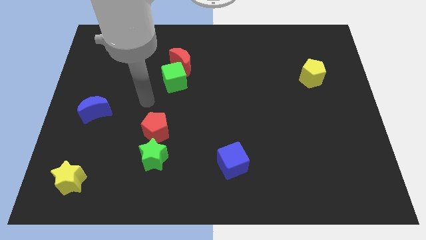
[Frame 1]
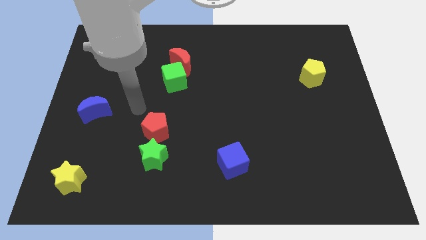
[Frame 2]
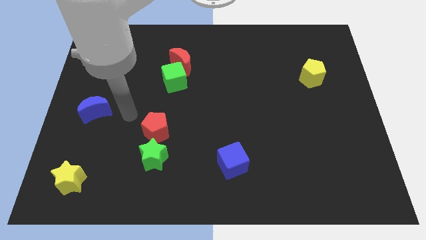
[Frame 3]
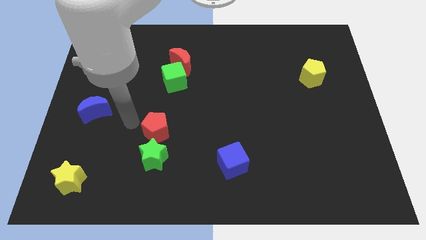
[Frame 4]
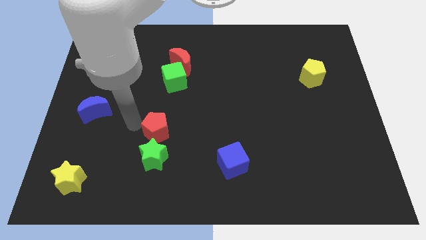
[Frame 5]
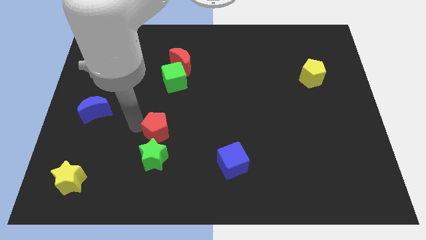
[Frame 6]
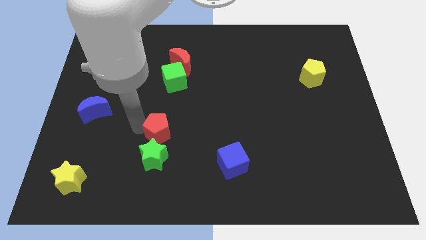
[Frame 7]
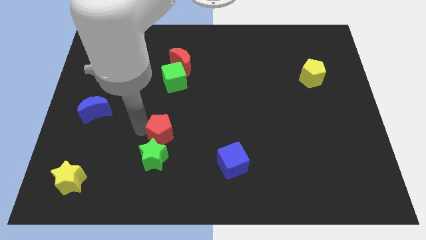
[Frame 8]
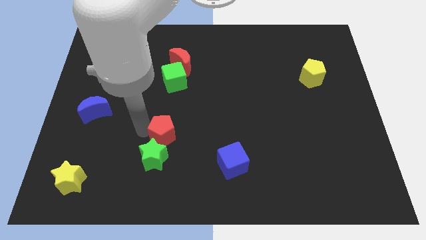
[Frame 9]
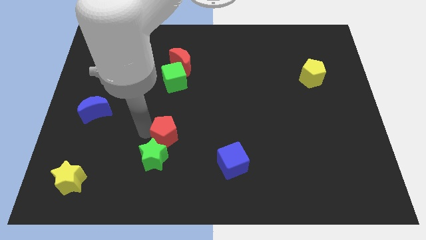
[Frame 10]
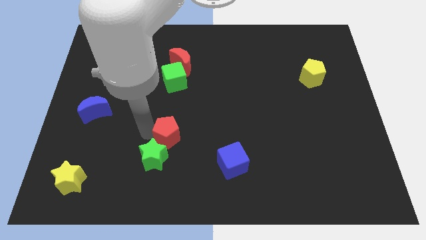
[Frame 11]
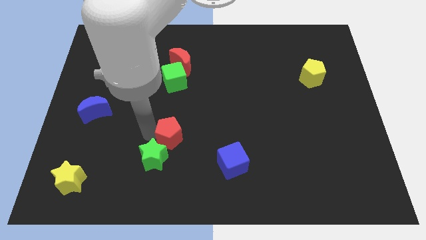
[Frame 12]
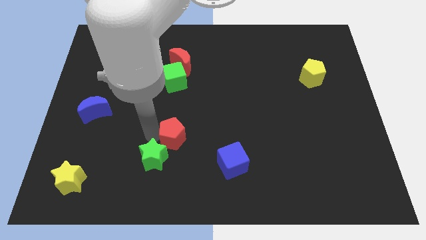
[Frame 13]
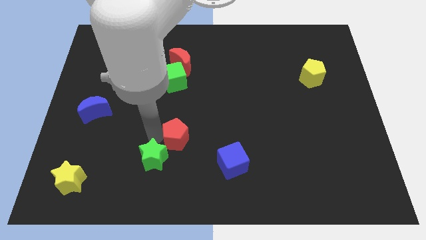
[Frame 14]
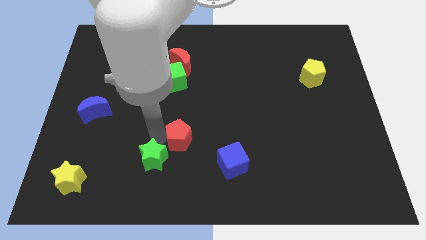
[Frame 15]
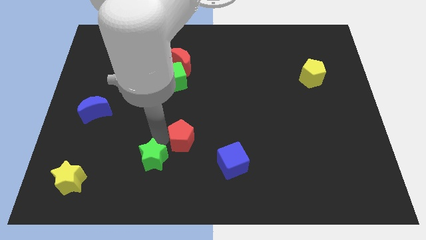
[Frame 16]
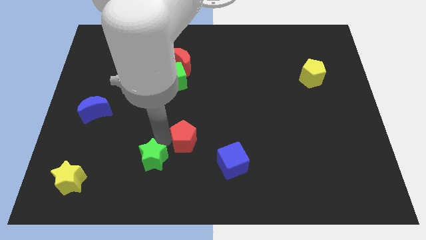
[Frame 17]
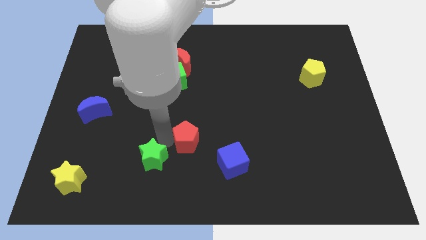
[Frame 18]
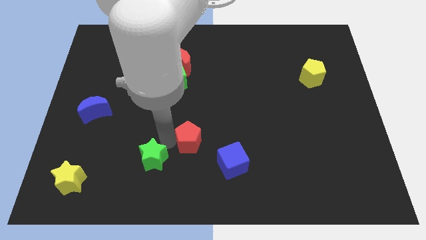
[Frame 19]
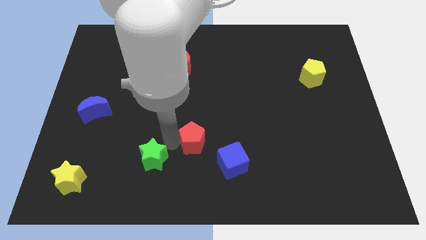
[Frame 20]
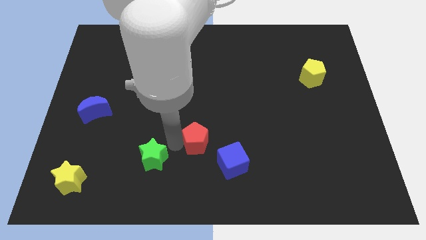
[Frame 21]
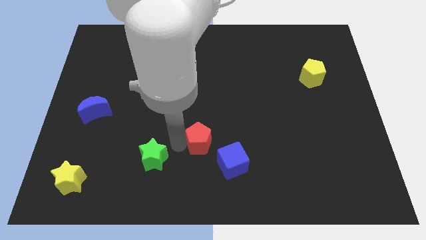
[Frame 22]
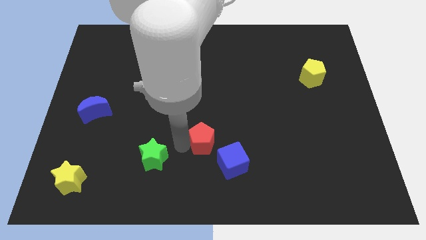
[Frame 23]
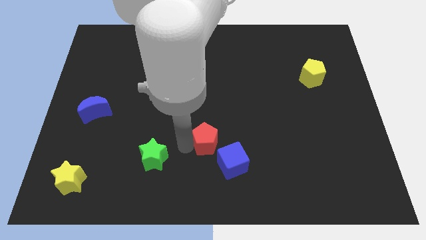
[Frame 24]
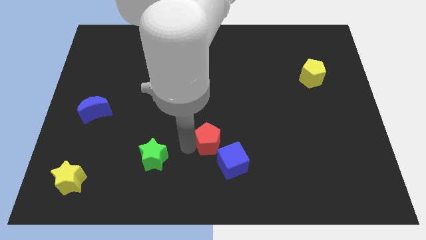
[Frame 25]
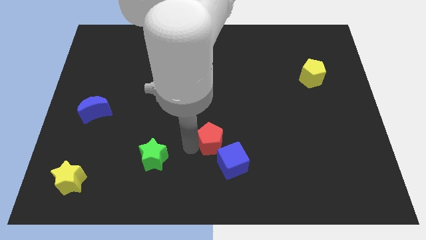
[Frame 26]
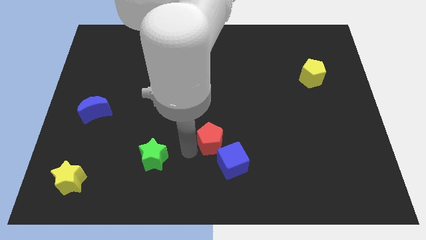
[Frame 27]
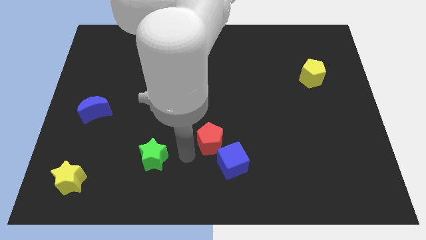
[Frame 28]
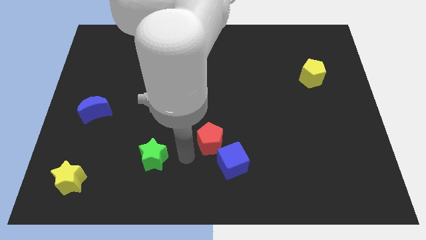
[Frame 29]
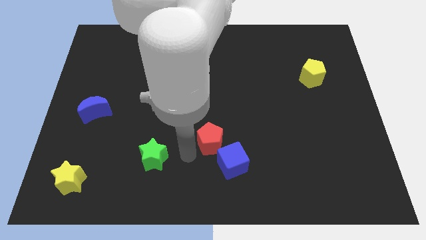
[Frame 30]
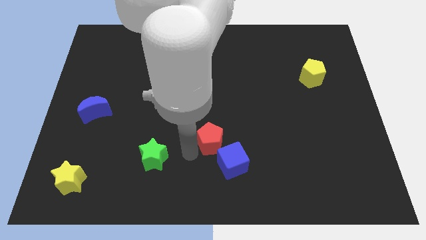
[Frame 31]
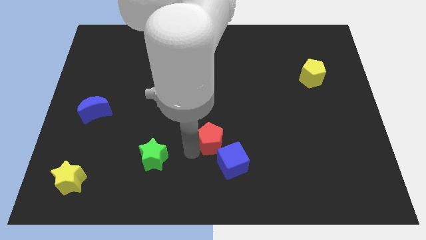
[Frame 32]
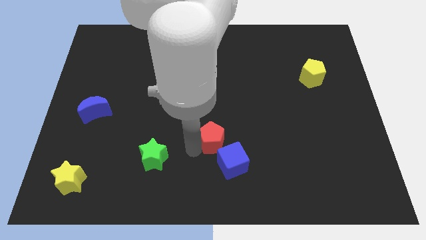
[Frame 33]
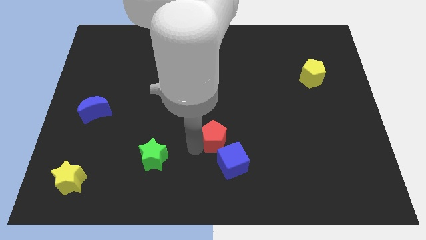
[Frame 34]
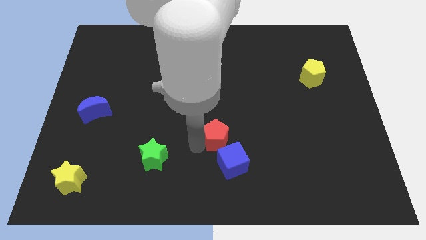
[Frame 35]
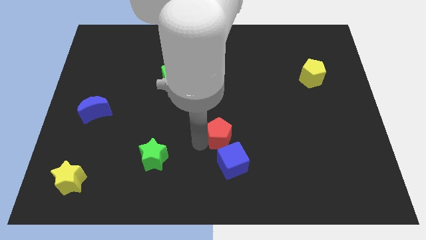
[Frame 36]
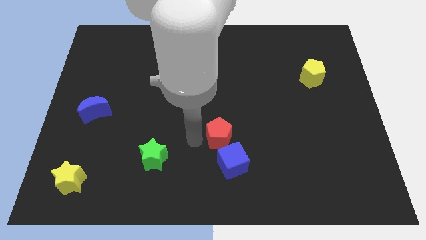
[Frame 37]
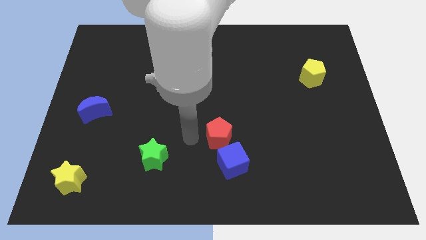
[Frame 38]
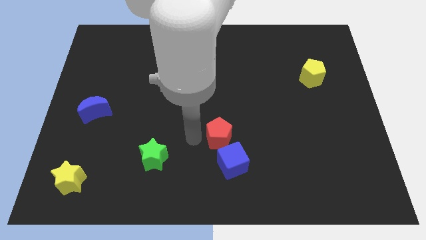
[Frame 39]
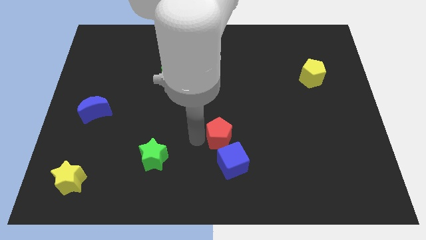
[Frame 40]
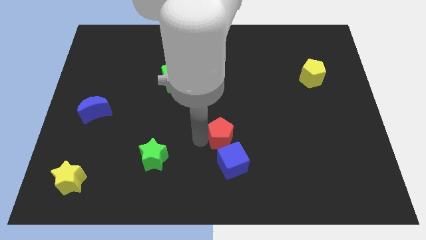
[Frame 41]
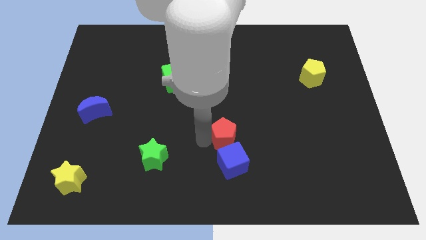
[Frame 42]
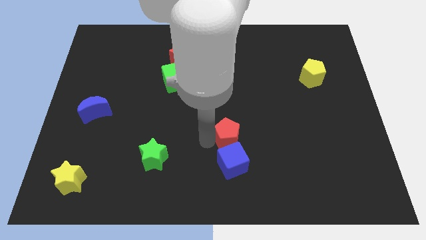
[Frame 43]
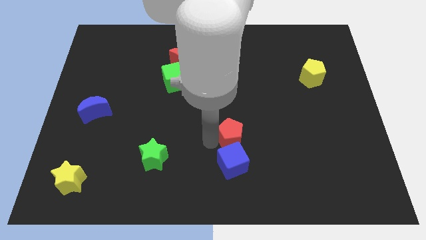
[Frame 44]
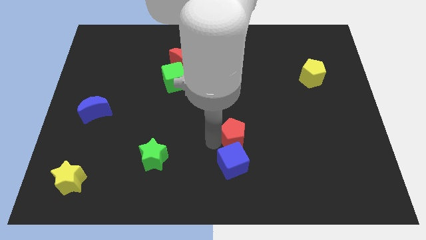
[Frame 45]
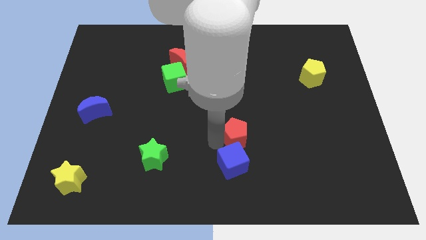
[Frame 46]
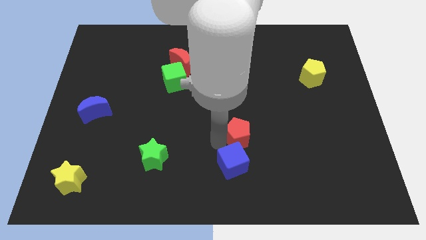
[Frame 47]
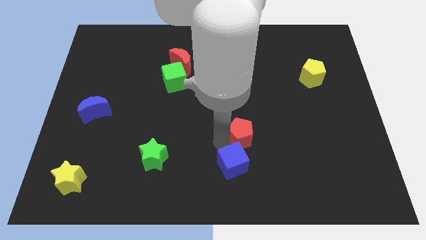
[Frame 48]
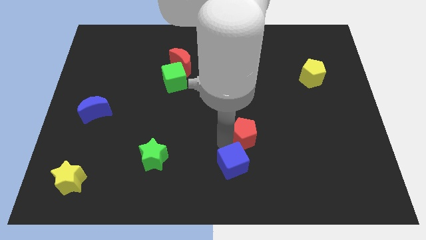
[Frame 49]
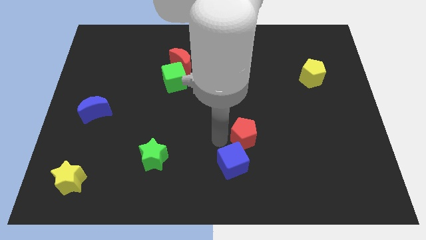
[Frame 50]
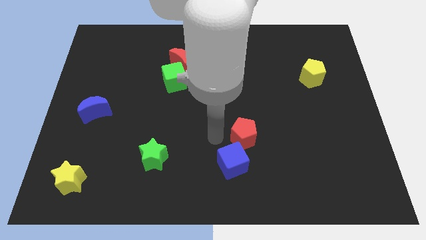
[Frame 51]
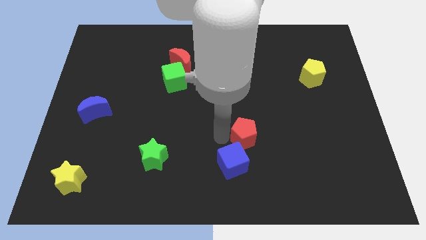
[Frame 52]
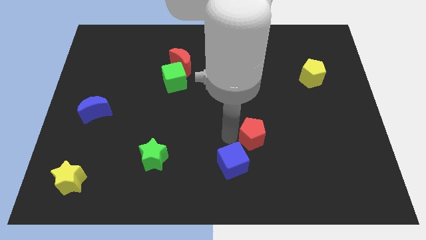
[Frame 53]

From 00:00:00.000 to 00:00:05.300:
move the red pentagon right

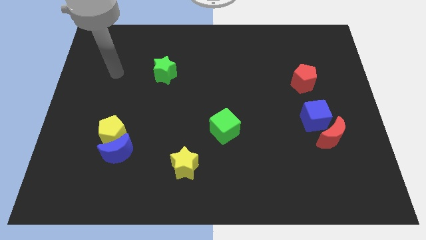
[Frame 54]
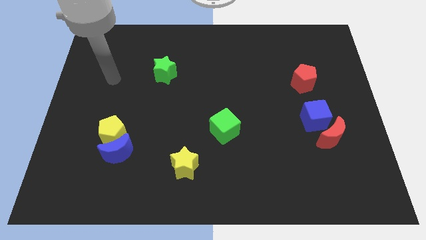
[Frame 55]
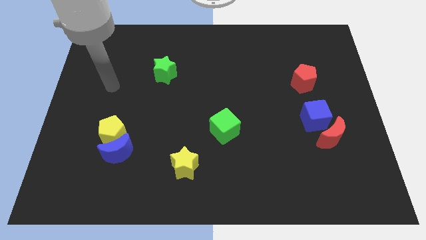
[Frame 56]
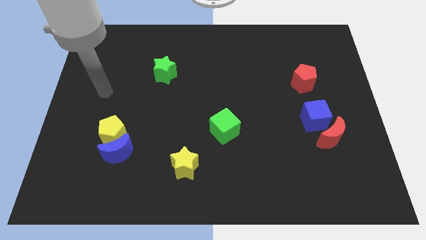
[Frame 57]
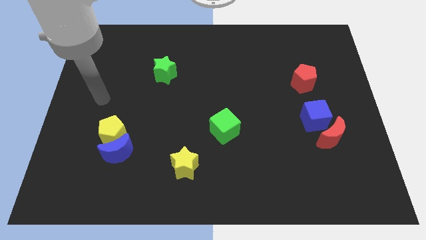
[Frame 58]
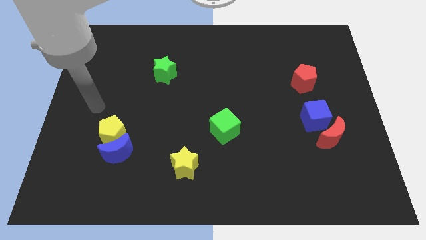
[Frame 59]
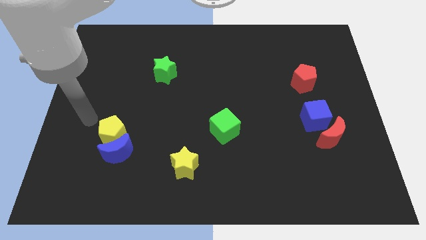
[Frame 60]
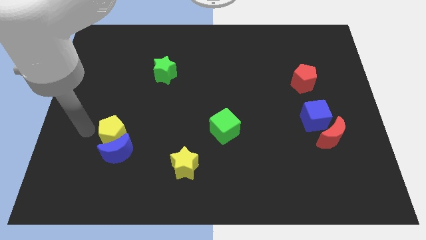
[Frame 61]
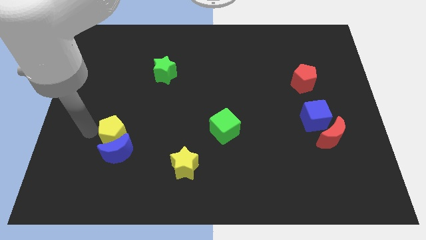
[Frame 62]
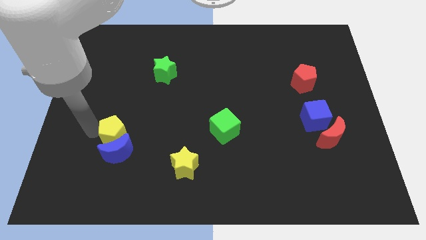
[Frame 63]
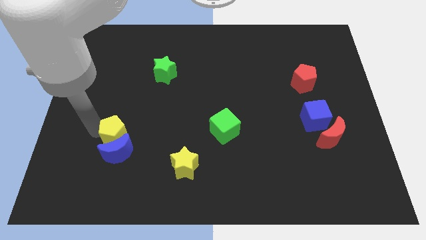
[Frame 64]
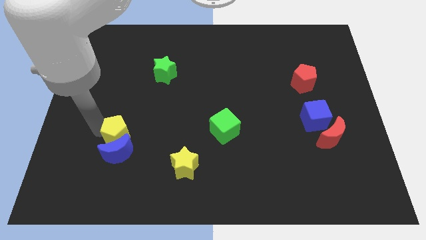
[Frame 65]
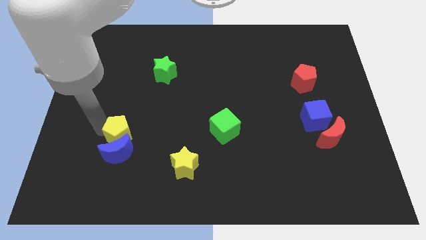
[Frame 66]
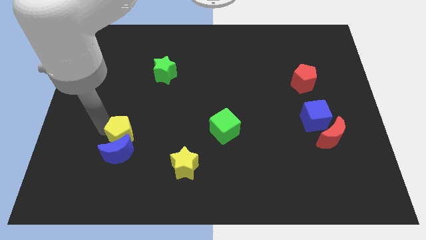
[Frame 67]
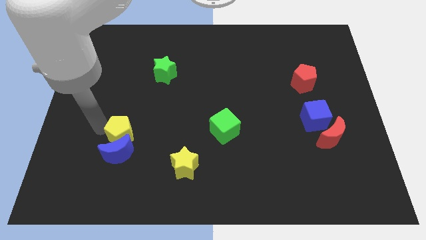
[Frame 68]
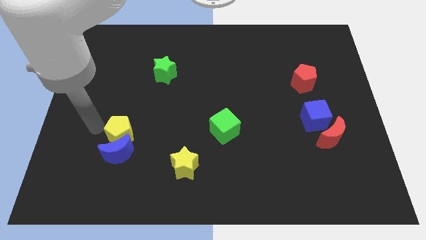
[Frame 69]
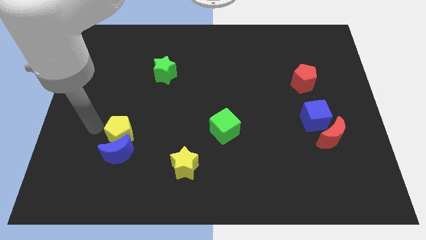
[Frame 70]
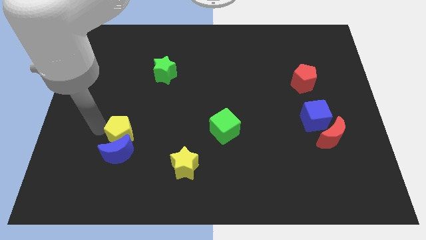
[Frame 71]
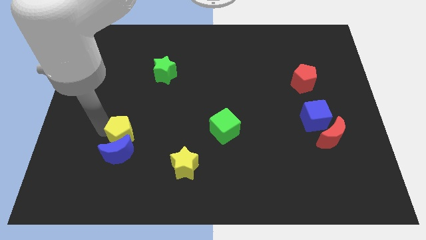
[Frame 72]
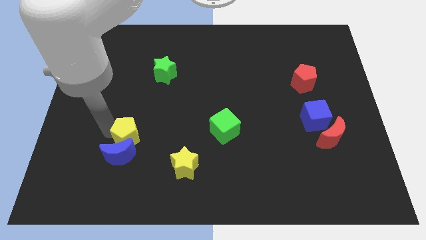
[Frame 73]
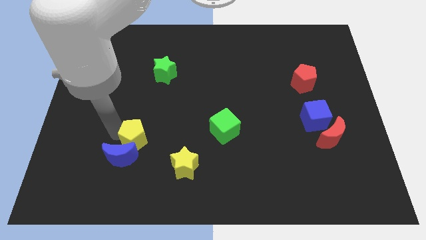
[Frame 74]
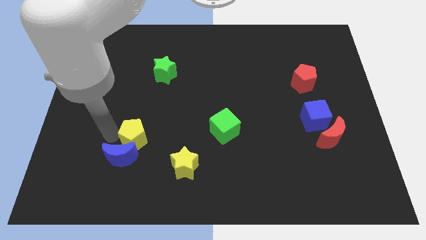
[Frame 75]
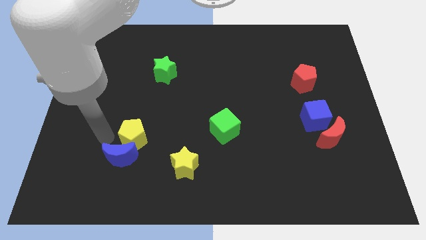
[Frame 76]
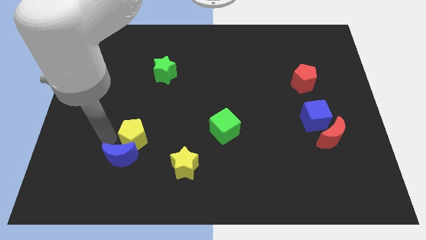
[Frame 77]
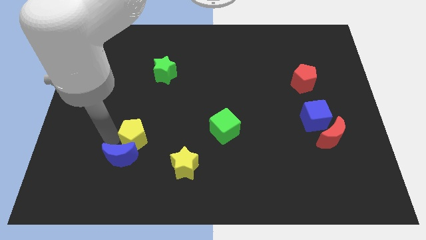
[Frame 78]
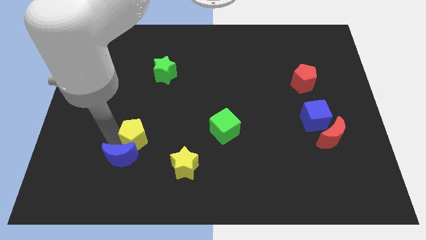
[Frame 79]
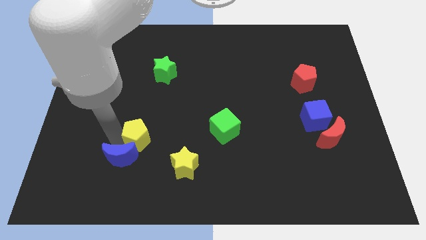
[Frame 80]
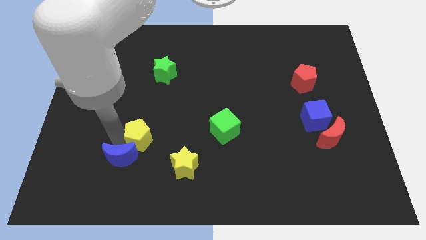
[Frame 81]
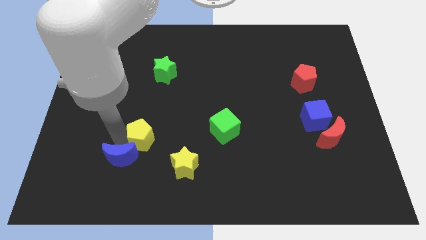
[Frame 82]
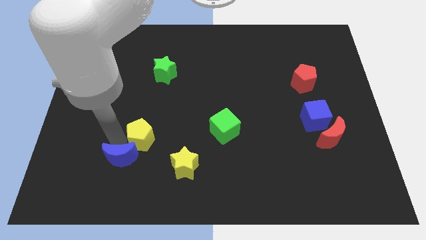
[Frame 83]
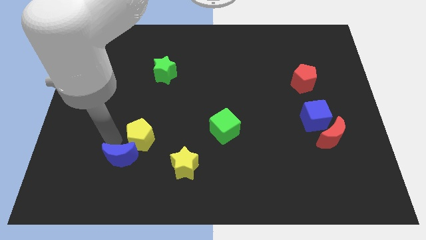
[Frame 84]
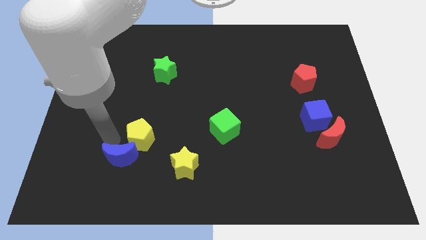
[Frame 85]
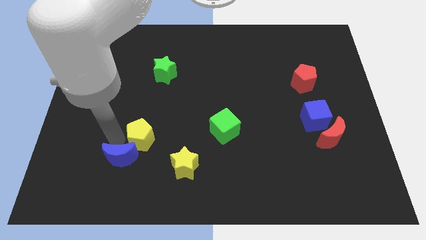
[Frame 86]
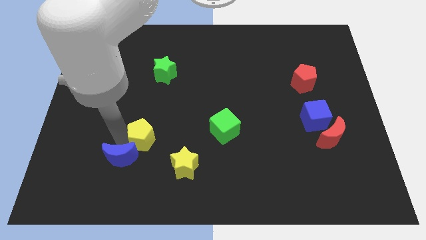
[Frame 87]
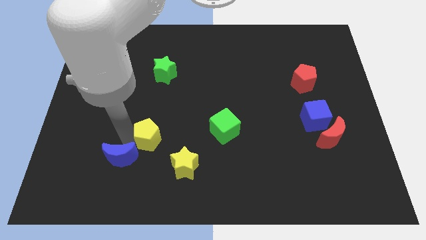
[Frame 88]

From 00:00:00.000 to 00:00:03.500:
slightly slide the yellow pentagon right
